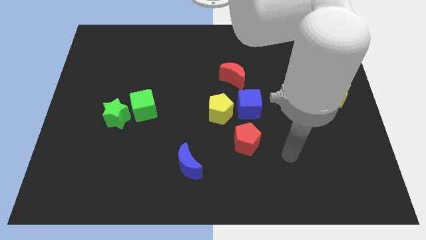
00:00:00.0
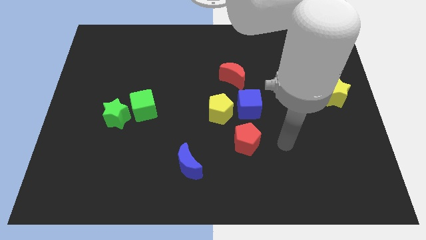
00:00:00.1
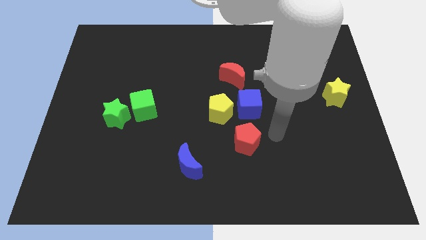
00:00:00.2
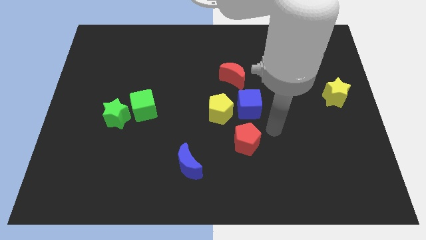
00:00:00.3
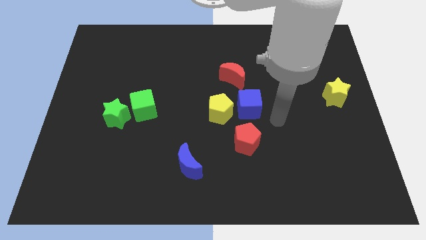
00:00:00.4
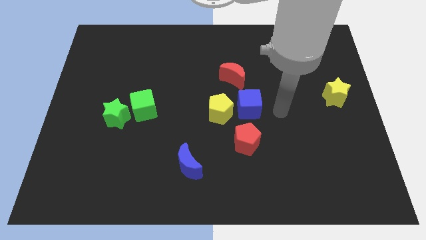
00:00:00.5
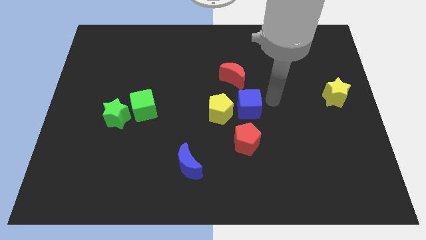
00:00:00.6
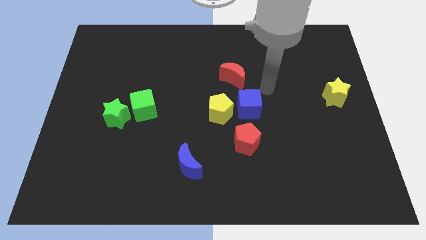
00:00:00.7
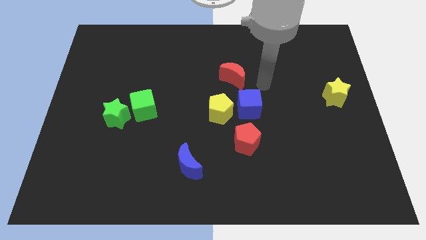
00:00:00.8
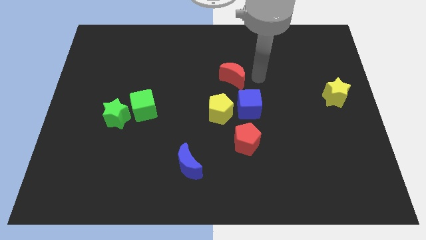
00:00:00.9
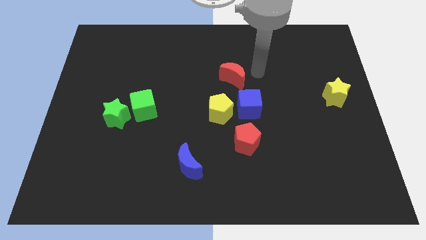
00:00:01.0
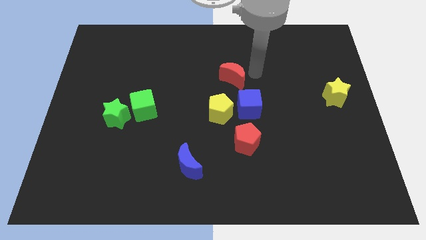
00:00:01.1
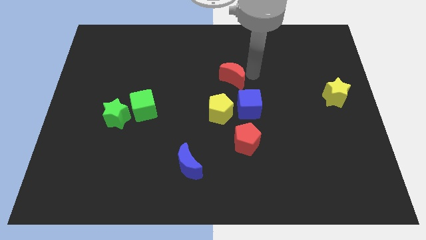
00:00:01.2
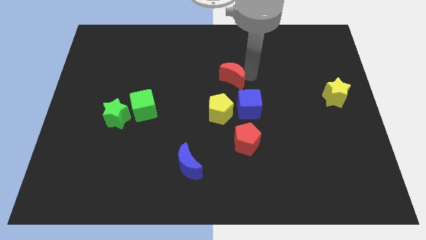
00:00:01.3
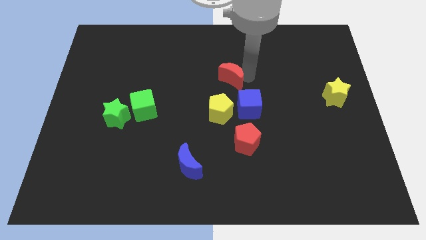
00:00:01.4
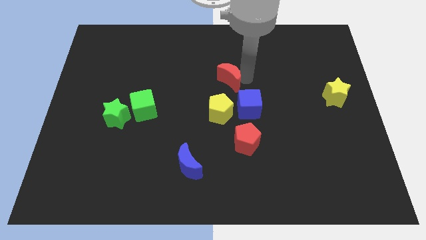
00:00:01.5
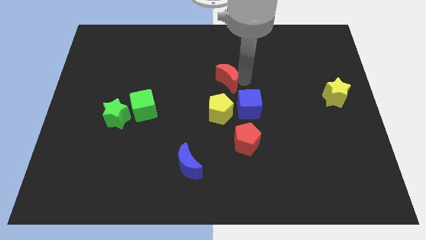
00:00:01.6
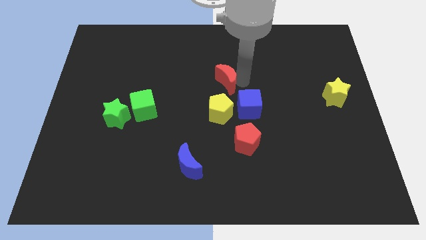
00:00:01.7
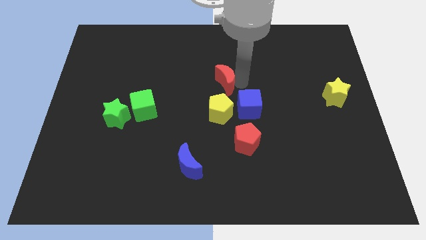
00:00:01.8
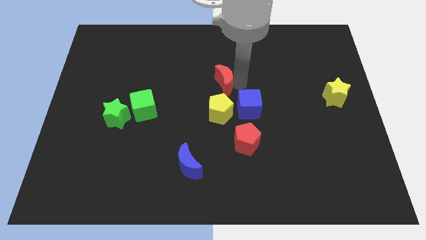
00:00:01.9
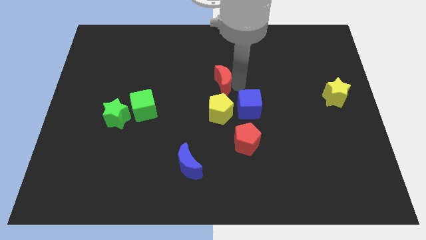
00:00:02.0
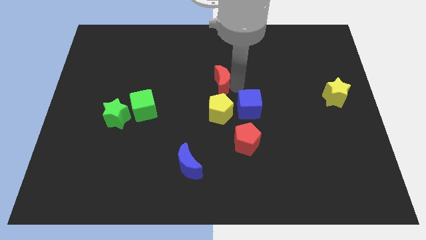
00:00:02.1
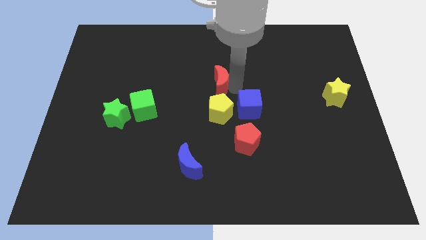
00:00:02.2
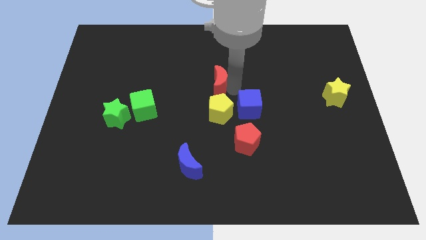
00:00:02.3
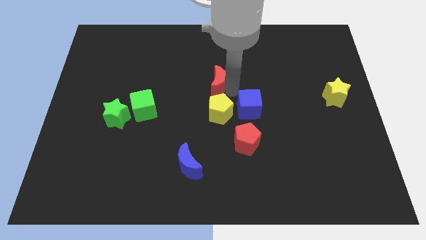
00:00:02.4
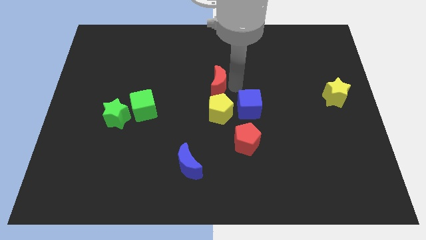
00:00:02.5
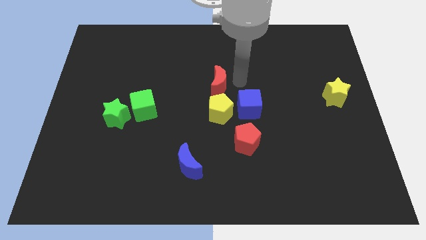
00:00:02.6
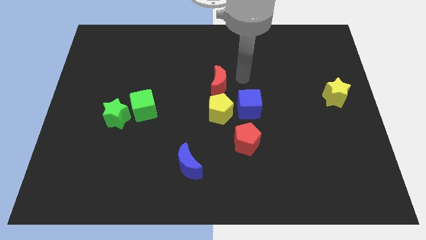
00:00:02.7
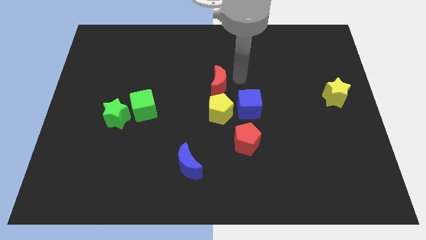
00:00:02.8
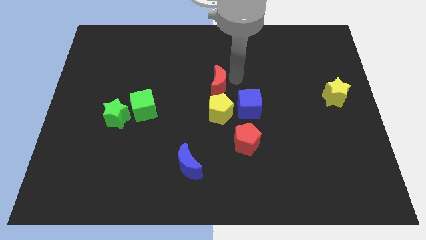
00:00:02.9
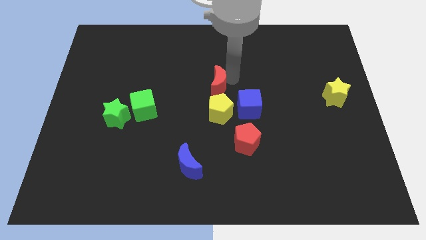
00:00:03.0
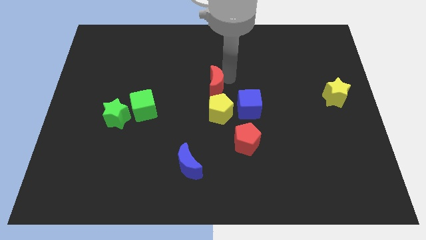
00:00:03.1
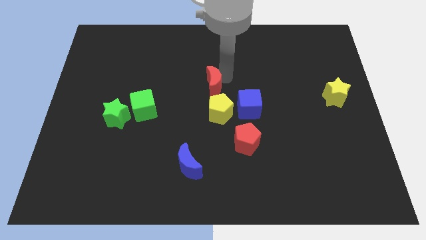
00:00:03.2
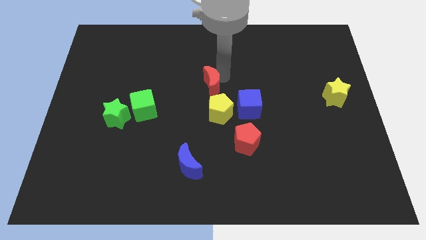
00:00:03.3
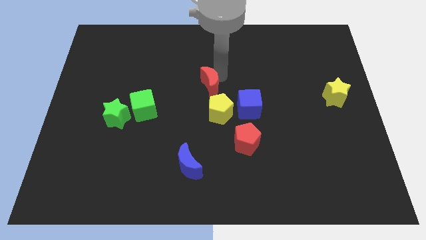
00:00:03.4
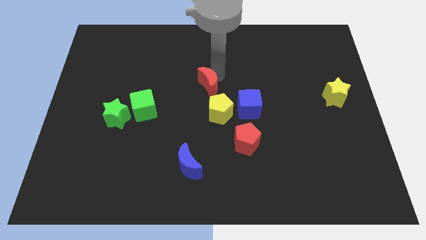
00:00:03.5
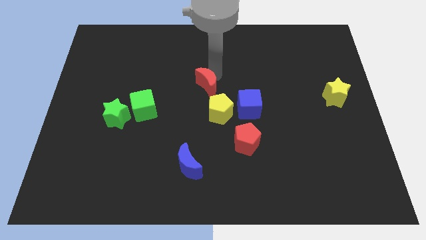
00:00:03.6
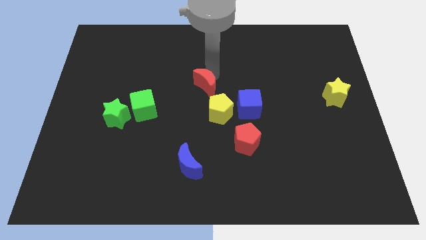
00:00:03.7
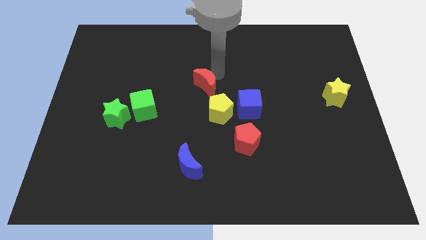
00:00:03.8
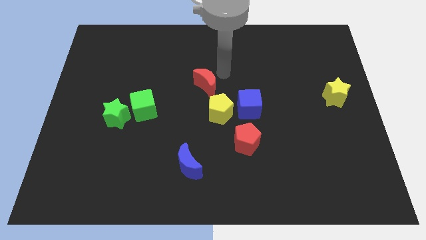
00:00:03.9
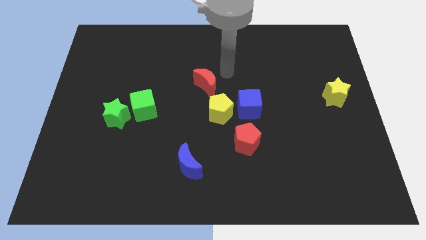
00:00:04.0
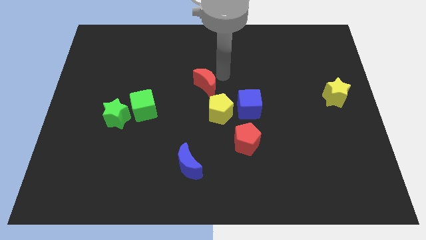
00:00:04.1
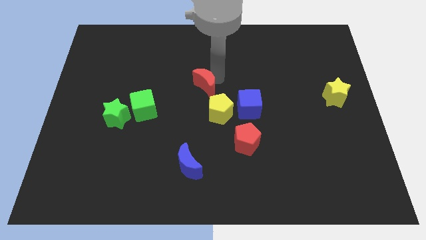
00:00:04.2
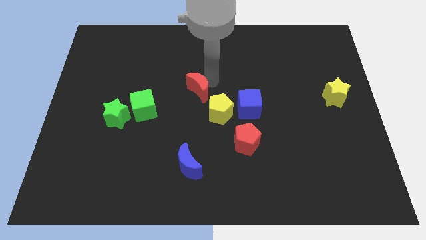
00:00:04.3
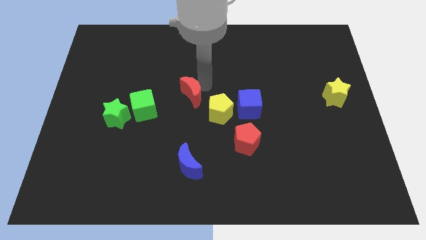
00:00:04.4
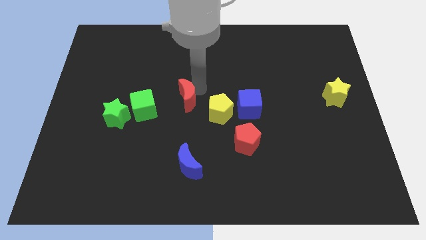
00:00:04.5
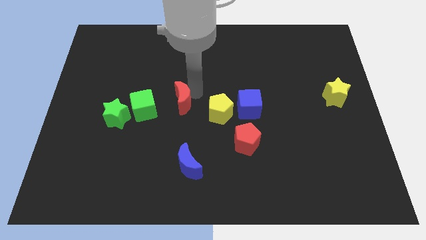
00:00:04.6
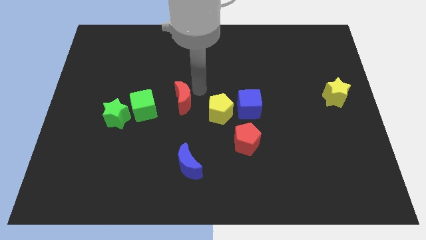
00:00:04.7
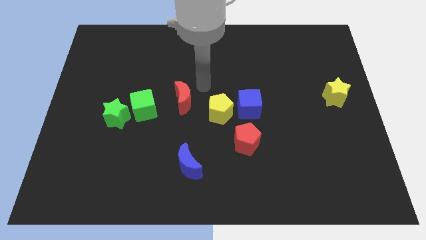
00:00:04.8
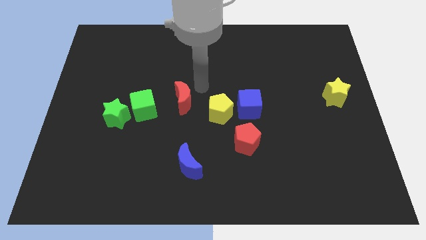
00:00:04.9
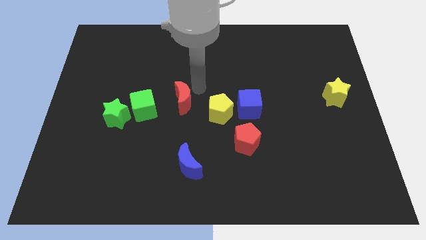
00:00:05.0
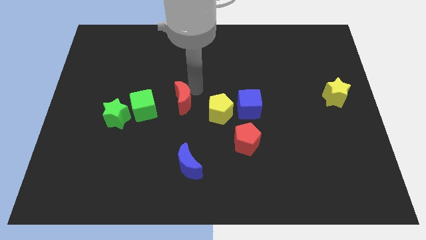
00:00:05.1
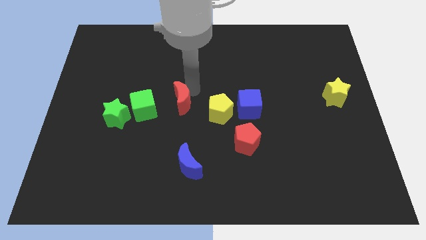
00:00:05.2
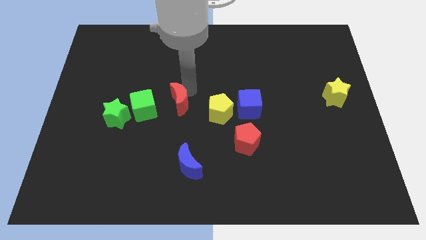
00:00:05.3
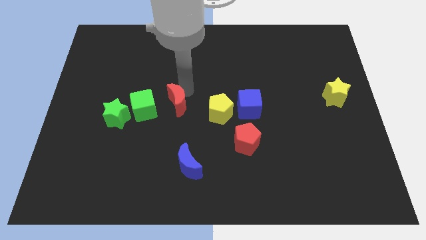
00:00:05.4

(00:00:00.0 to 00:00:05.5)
put the red moon just right of the green star
